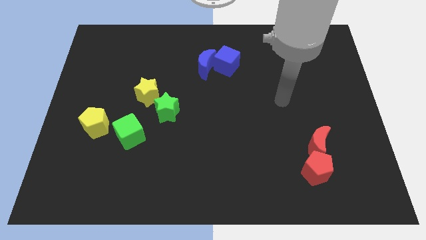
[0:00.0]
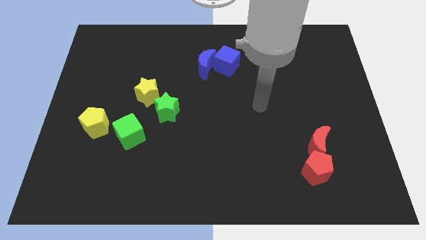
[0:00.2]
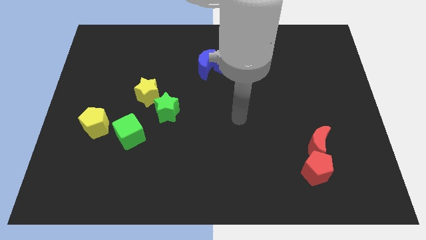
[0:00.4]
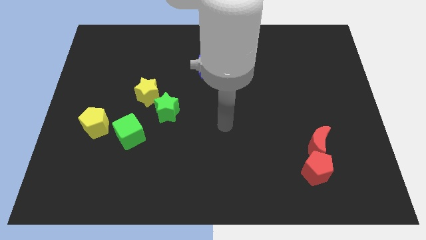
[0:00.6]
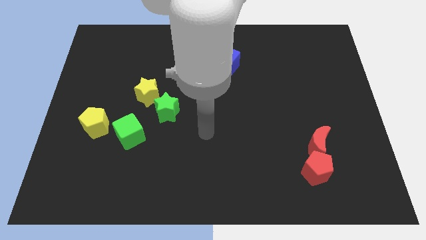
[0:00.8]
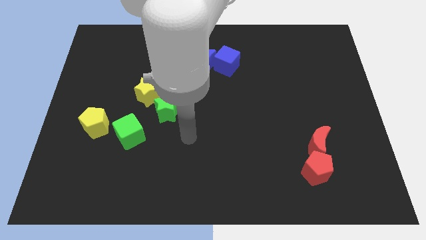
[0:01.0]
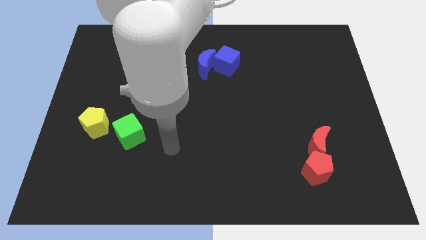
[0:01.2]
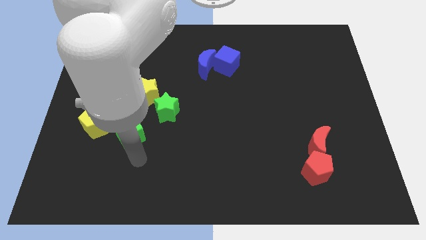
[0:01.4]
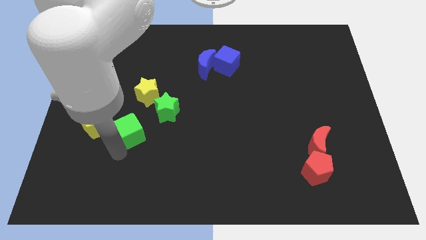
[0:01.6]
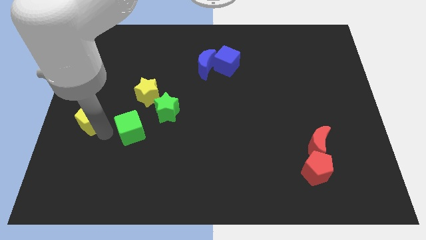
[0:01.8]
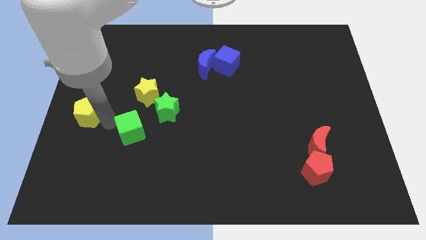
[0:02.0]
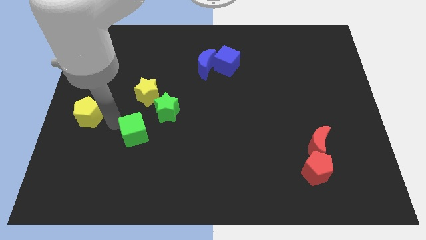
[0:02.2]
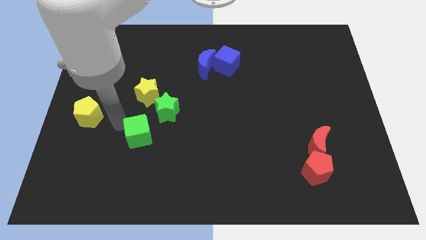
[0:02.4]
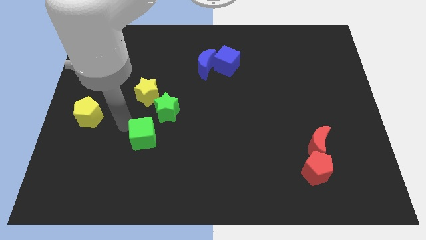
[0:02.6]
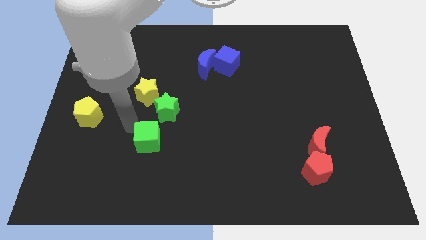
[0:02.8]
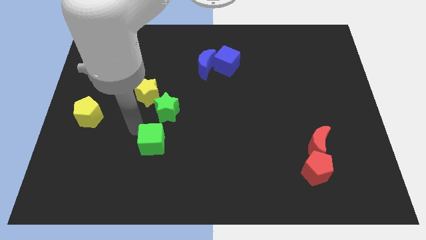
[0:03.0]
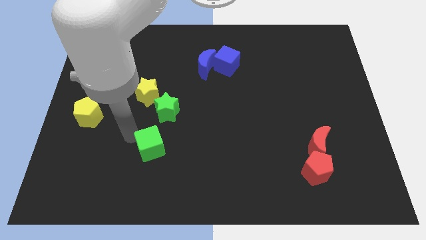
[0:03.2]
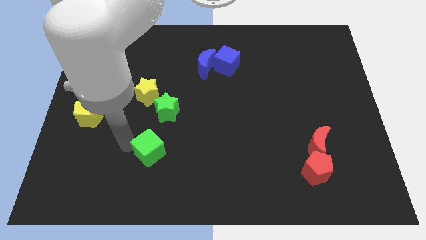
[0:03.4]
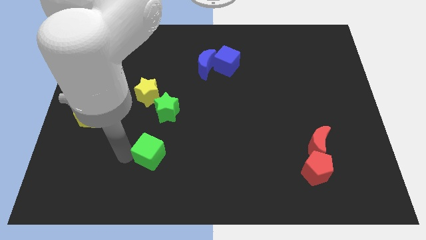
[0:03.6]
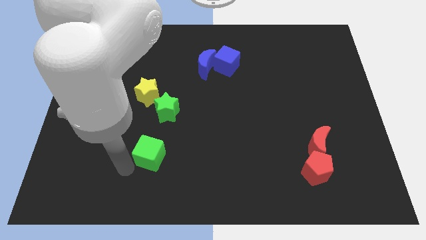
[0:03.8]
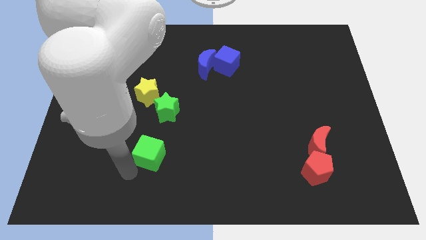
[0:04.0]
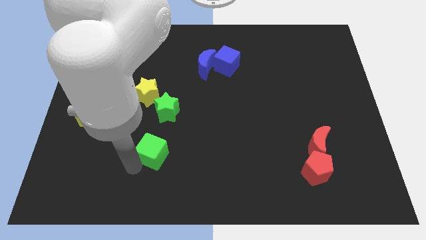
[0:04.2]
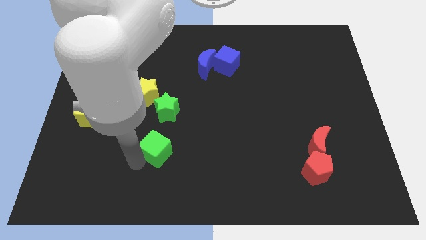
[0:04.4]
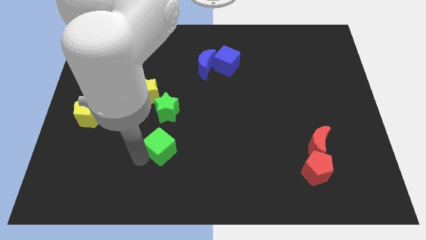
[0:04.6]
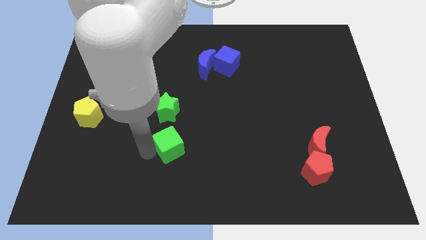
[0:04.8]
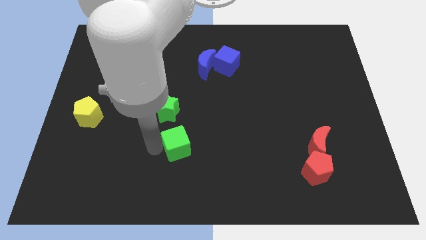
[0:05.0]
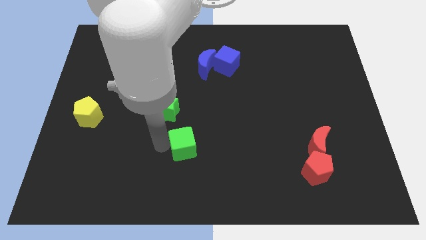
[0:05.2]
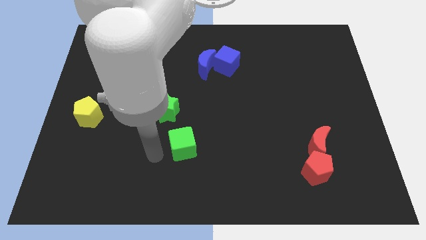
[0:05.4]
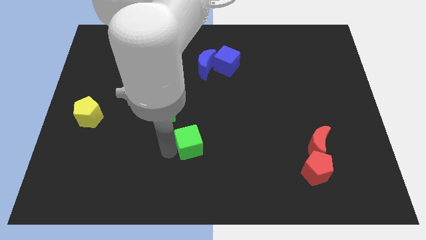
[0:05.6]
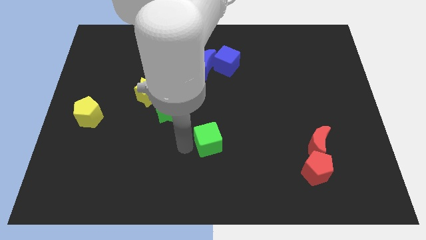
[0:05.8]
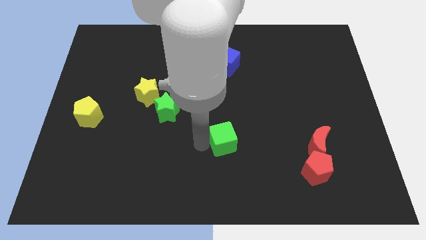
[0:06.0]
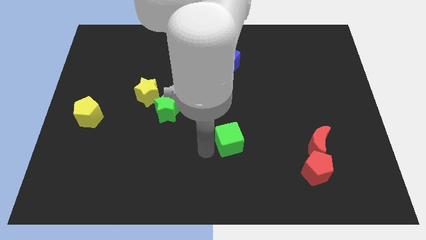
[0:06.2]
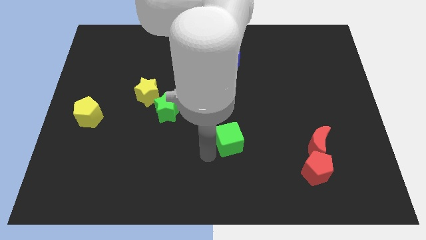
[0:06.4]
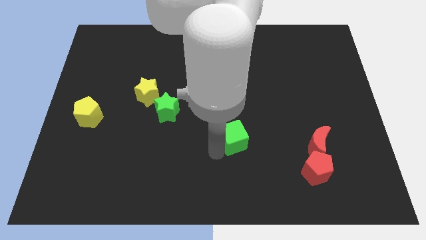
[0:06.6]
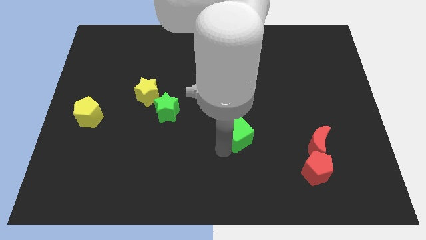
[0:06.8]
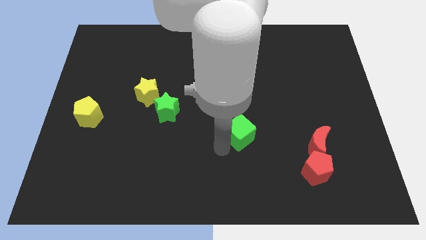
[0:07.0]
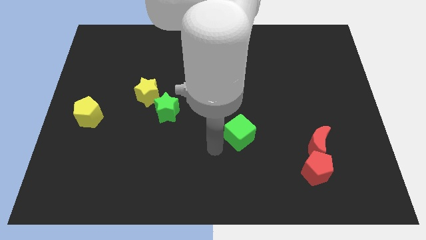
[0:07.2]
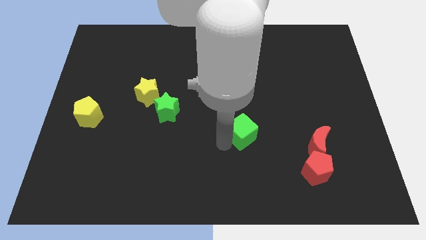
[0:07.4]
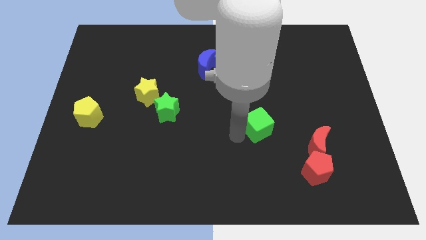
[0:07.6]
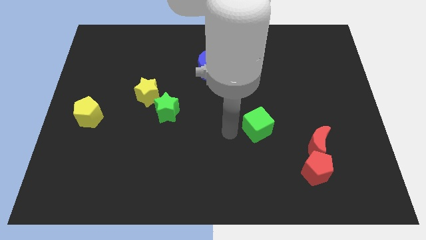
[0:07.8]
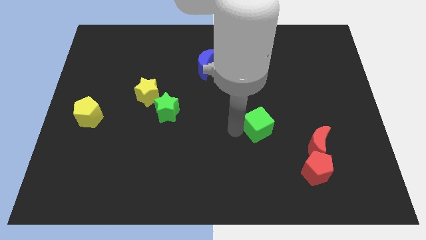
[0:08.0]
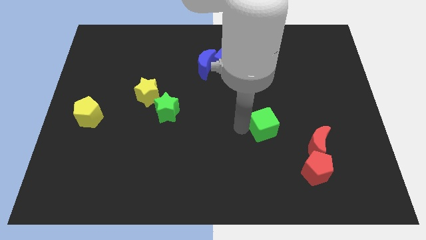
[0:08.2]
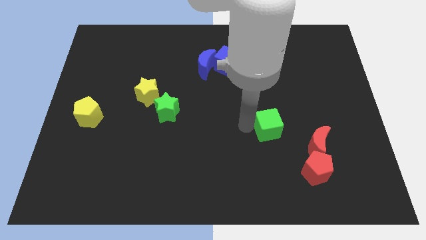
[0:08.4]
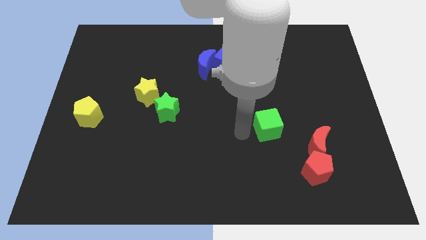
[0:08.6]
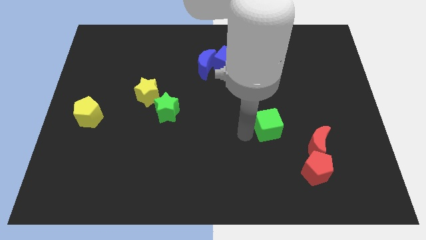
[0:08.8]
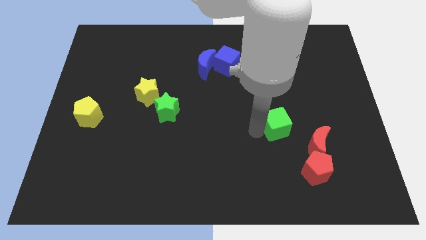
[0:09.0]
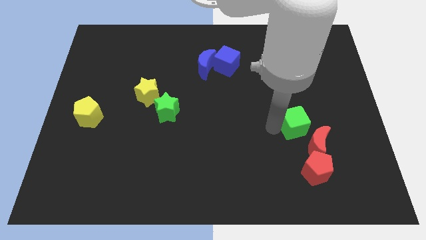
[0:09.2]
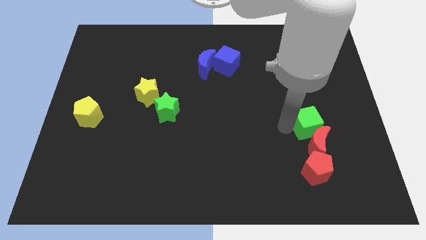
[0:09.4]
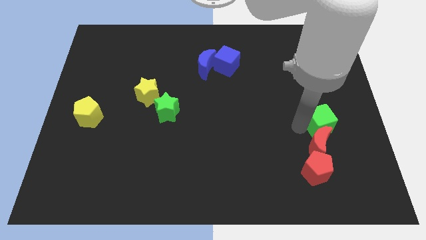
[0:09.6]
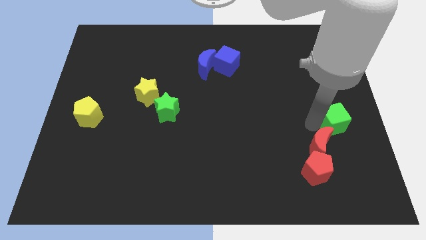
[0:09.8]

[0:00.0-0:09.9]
slide the green cube to the right side

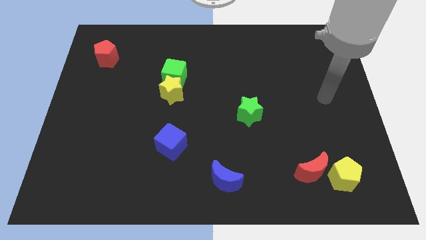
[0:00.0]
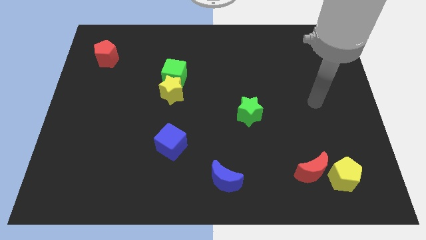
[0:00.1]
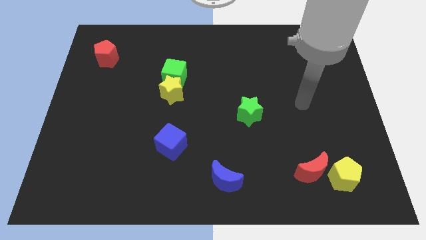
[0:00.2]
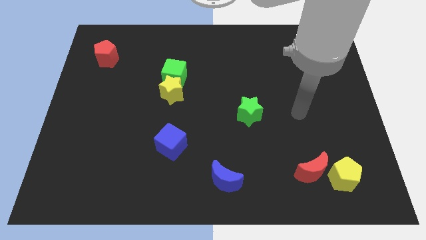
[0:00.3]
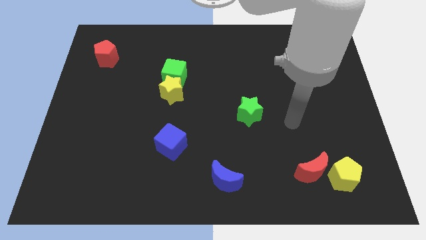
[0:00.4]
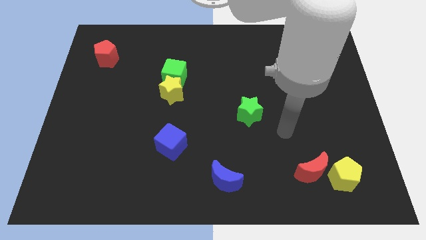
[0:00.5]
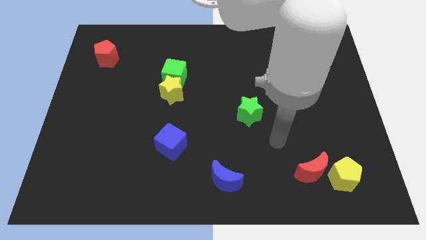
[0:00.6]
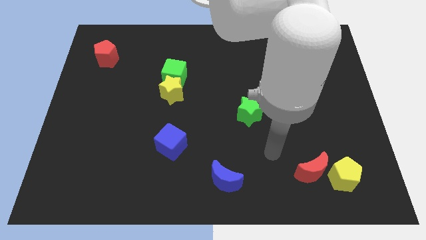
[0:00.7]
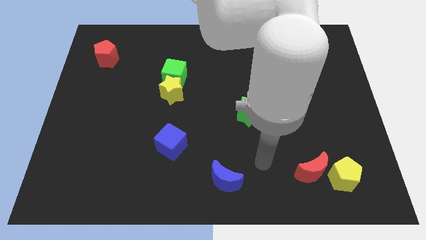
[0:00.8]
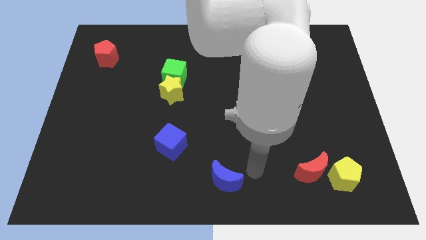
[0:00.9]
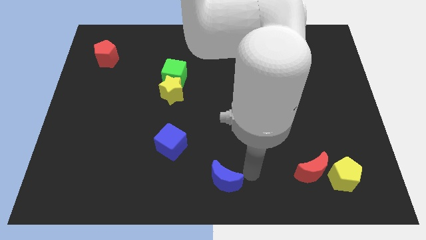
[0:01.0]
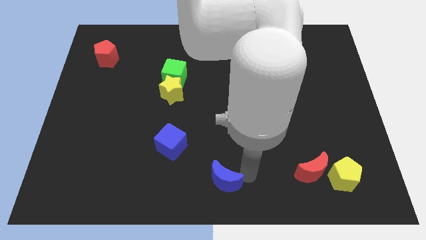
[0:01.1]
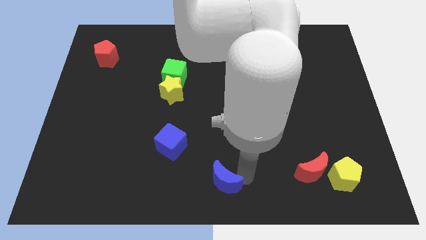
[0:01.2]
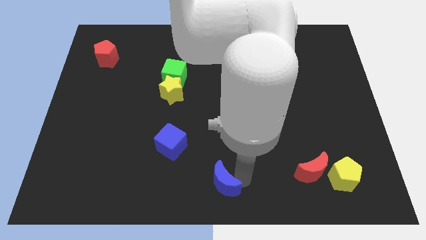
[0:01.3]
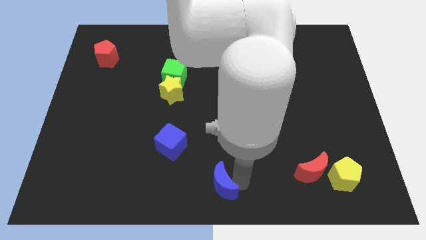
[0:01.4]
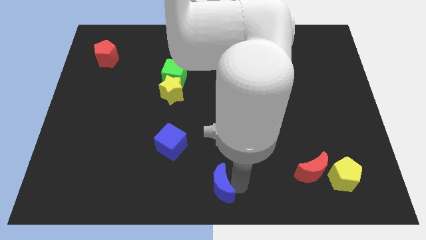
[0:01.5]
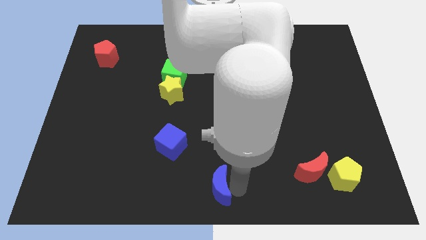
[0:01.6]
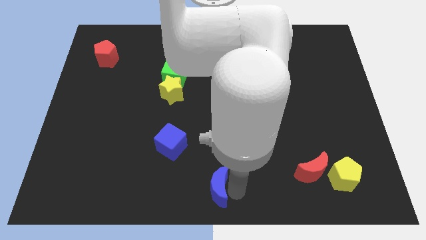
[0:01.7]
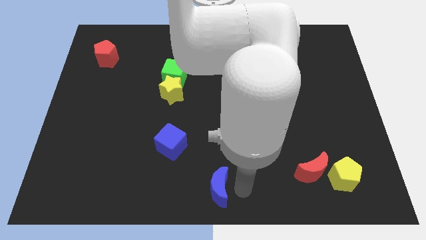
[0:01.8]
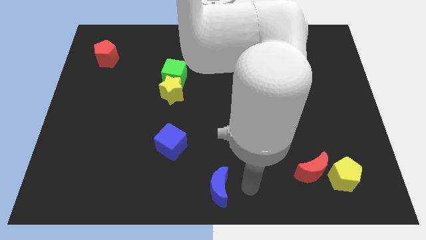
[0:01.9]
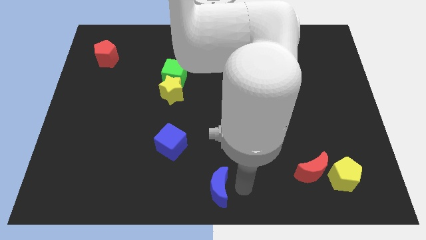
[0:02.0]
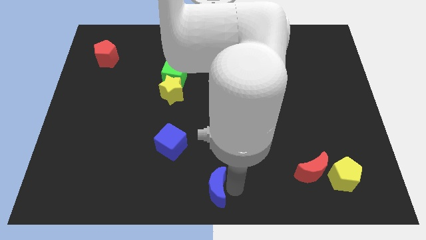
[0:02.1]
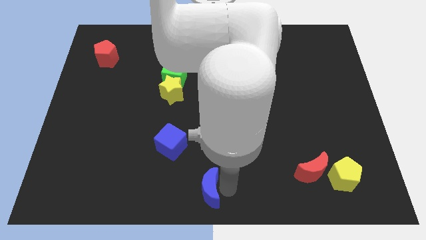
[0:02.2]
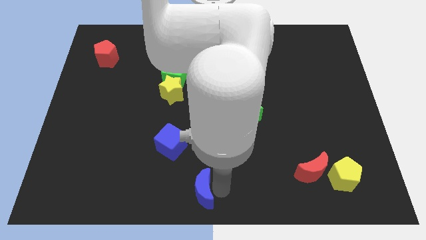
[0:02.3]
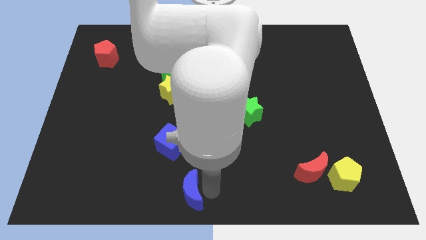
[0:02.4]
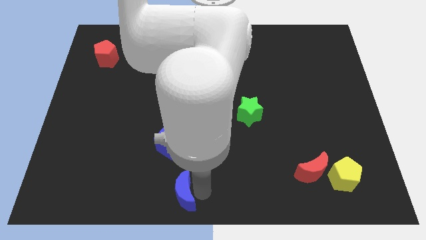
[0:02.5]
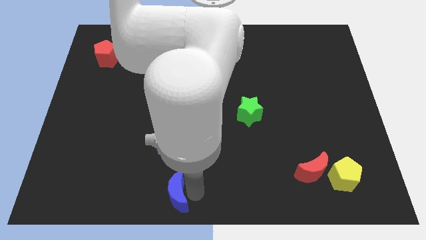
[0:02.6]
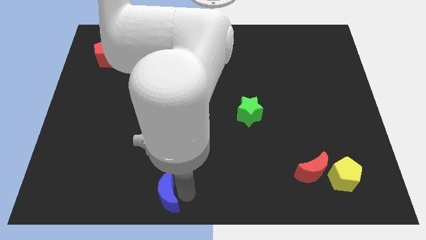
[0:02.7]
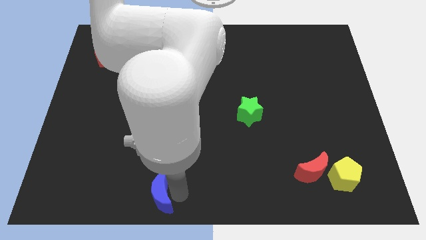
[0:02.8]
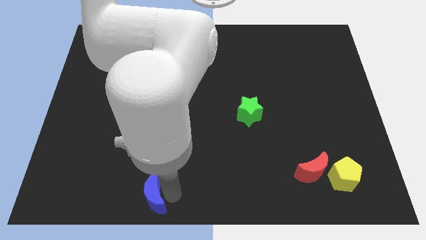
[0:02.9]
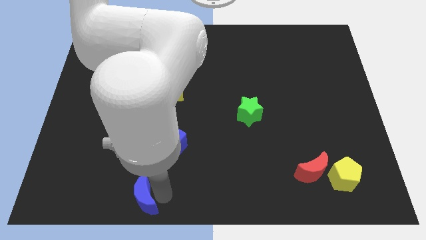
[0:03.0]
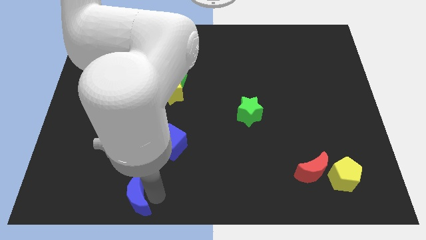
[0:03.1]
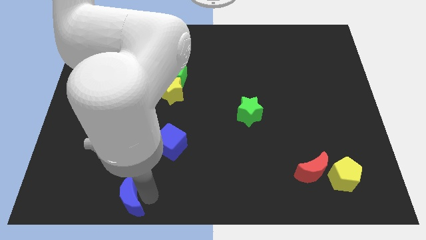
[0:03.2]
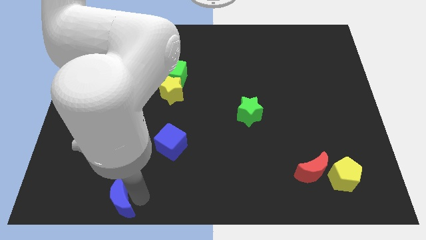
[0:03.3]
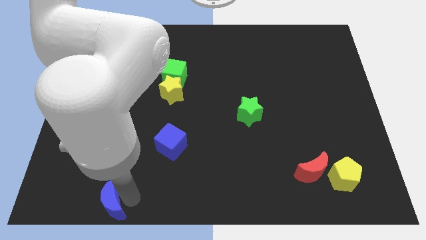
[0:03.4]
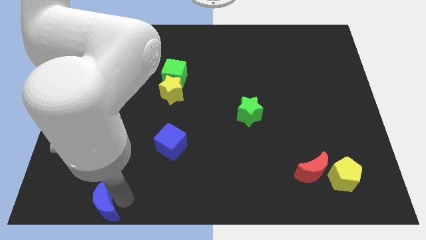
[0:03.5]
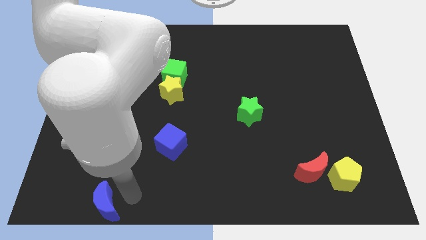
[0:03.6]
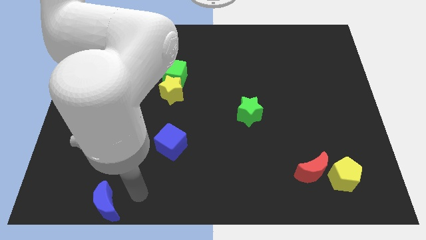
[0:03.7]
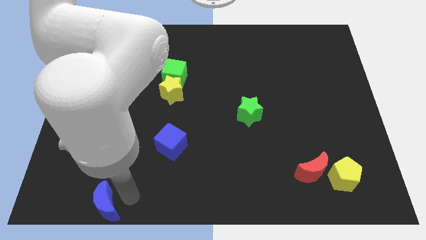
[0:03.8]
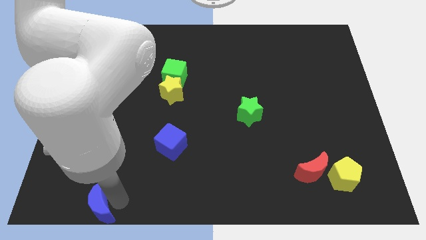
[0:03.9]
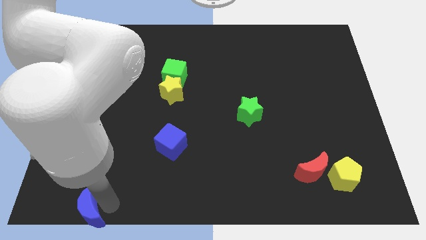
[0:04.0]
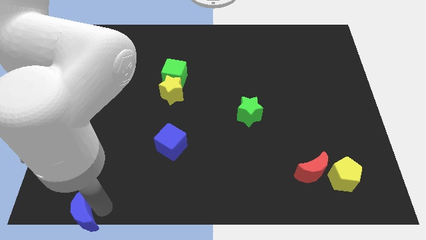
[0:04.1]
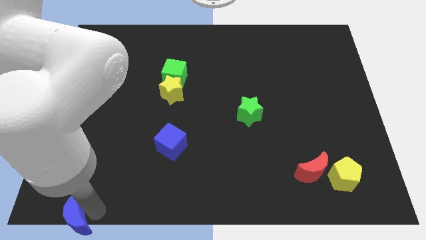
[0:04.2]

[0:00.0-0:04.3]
put the blue moon to the lower left corner
